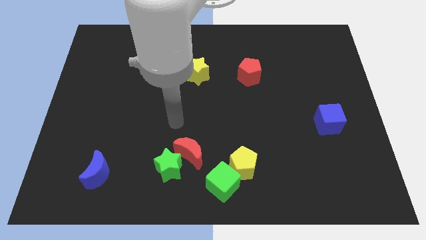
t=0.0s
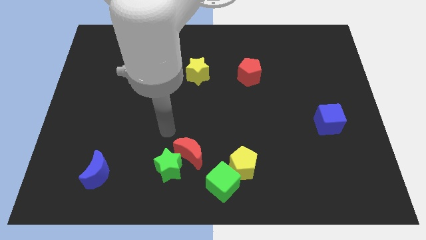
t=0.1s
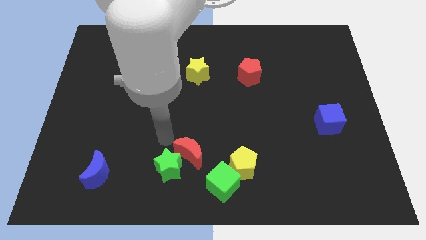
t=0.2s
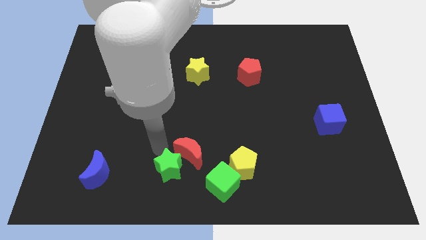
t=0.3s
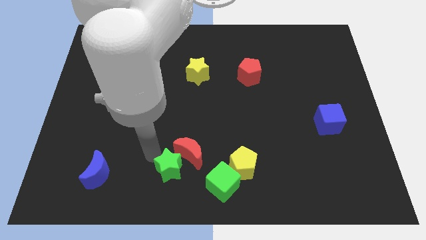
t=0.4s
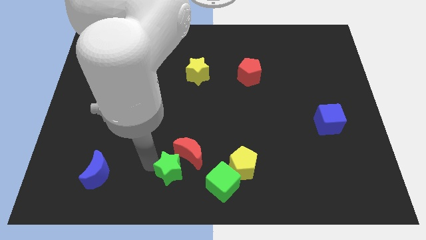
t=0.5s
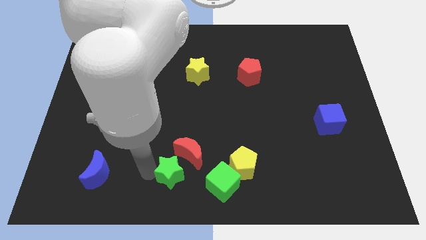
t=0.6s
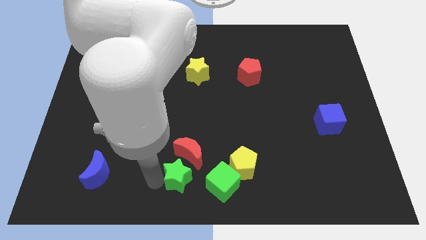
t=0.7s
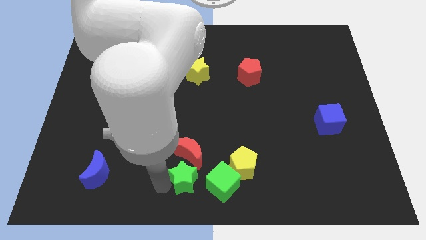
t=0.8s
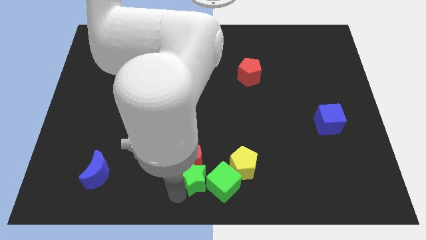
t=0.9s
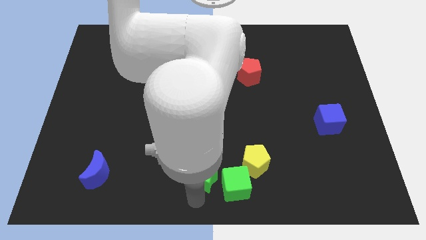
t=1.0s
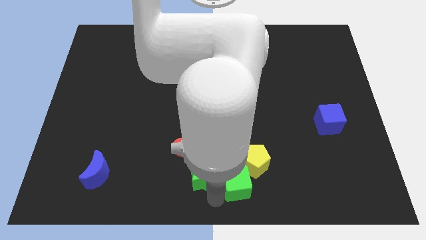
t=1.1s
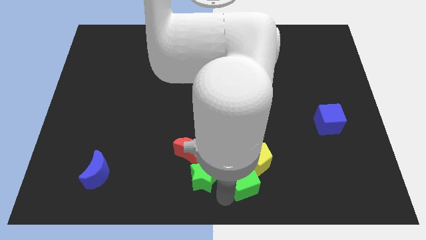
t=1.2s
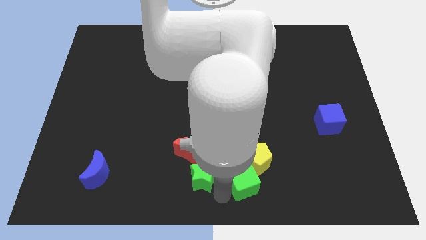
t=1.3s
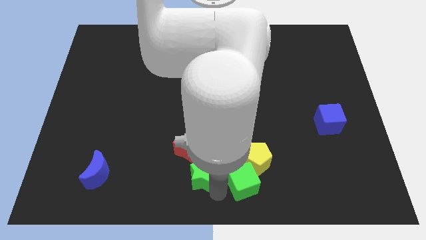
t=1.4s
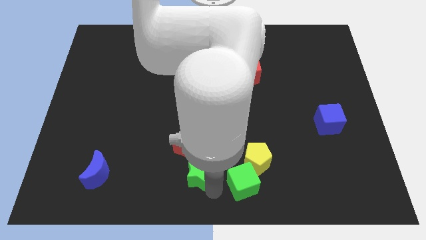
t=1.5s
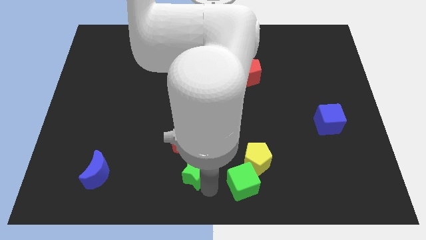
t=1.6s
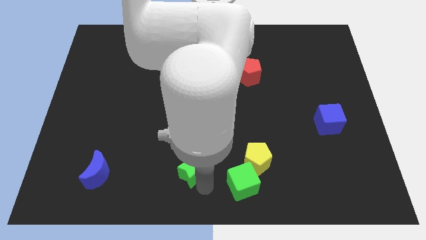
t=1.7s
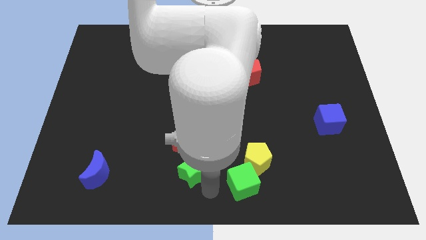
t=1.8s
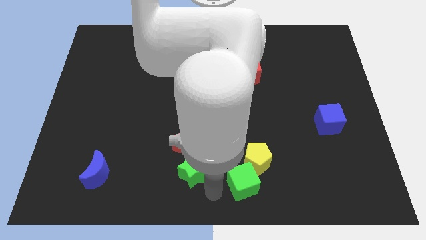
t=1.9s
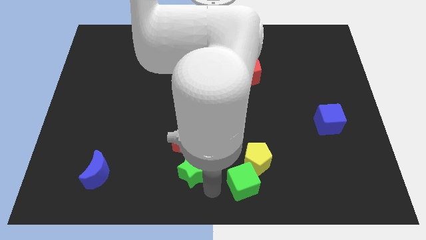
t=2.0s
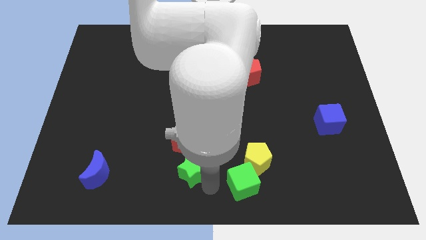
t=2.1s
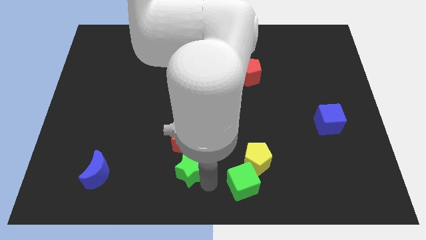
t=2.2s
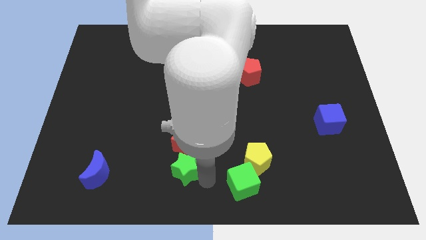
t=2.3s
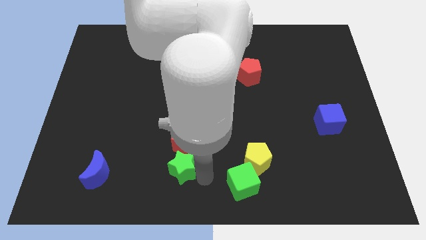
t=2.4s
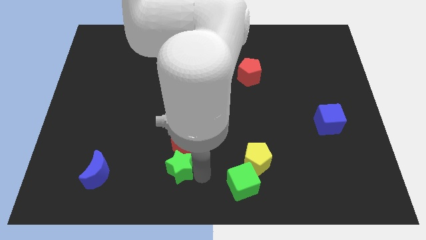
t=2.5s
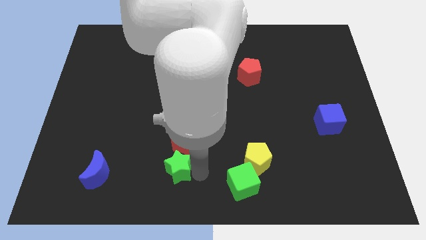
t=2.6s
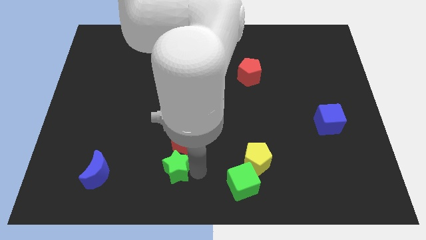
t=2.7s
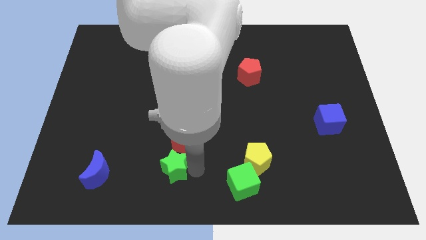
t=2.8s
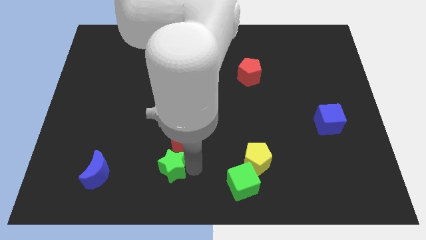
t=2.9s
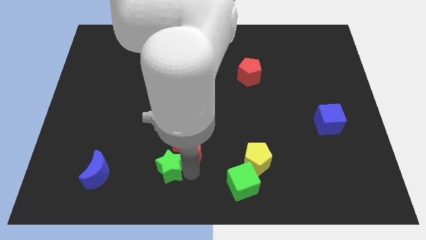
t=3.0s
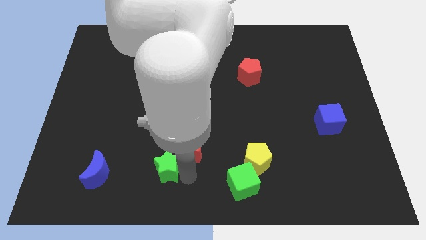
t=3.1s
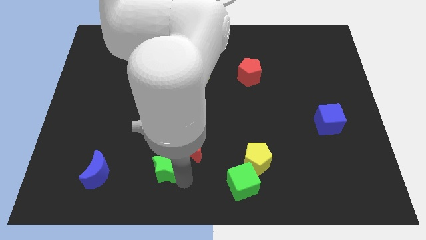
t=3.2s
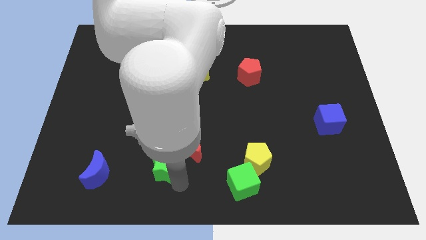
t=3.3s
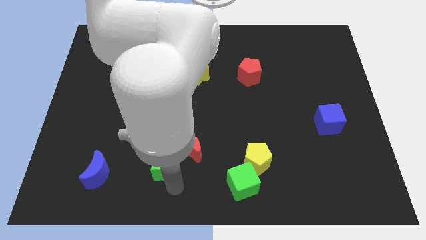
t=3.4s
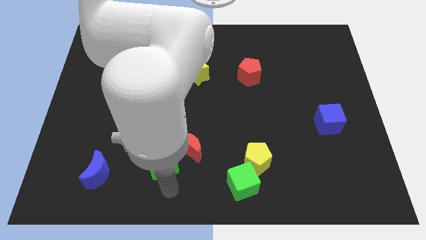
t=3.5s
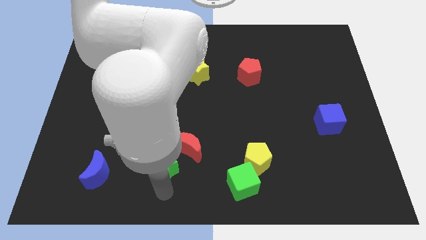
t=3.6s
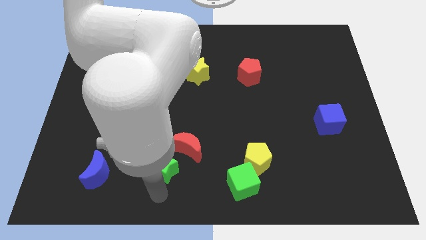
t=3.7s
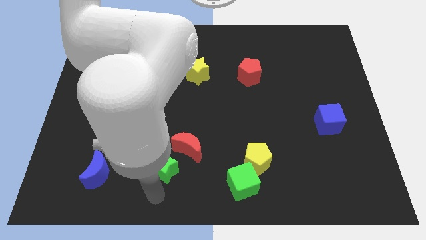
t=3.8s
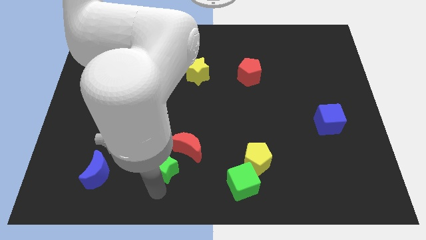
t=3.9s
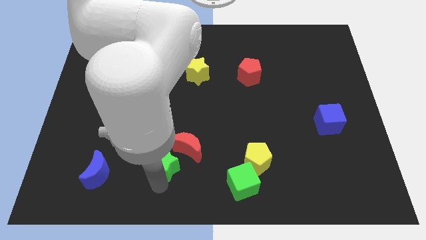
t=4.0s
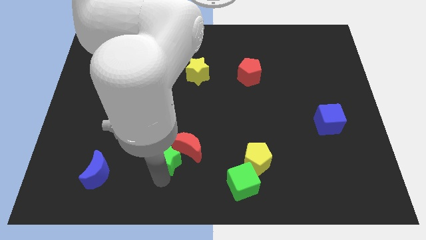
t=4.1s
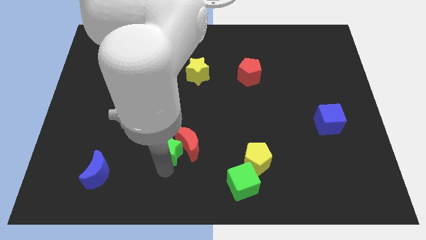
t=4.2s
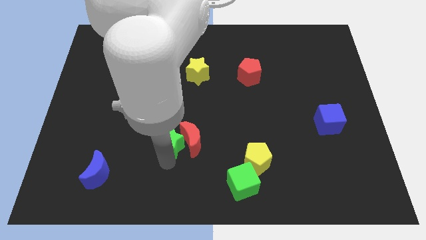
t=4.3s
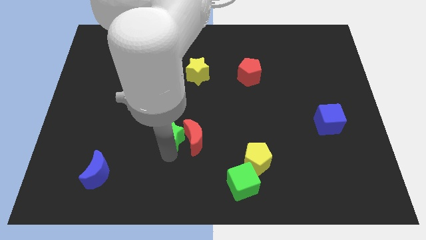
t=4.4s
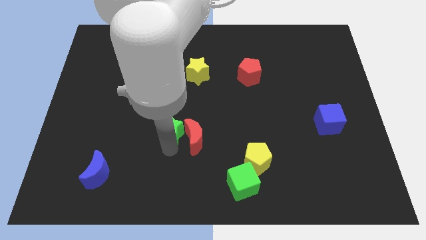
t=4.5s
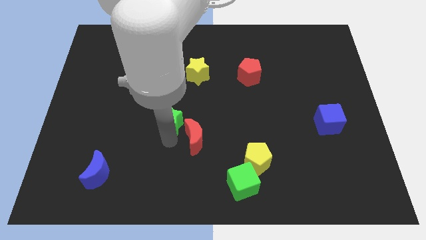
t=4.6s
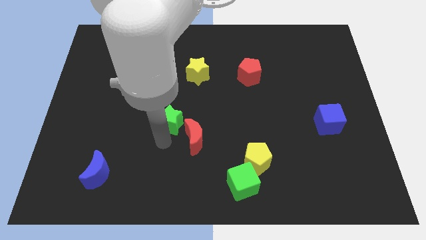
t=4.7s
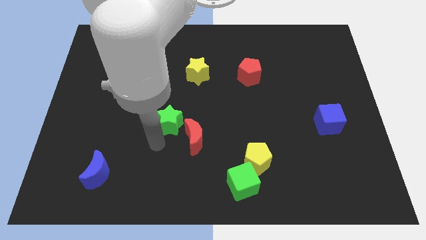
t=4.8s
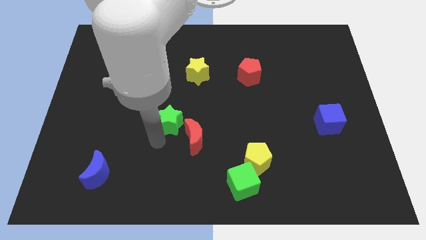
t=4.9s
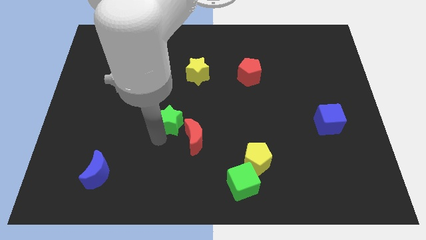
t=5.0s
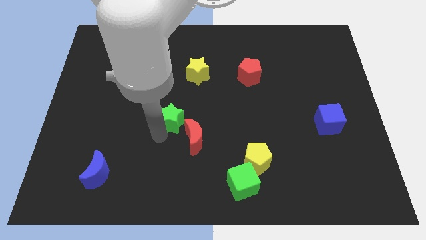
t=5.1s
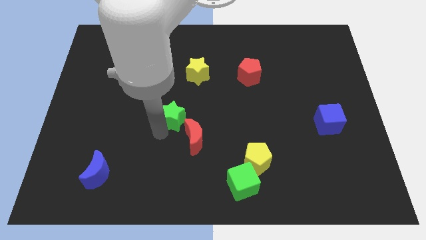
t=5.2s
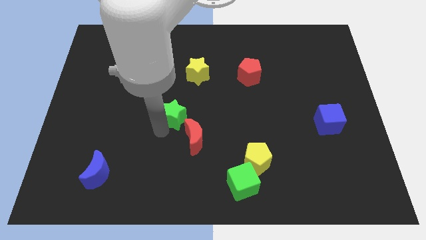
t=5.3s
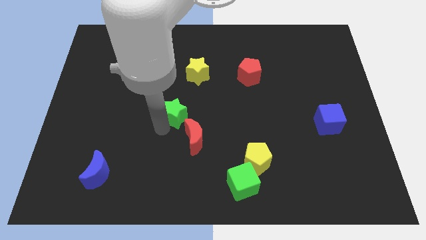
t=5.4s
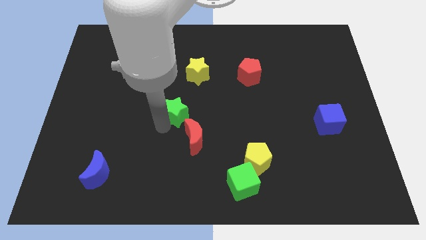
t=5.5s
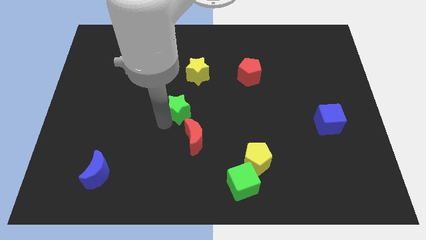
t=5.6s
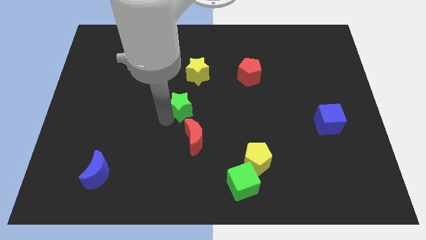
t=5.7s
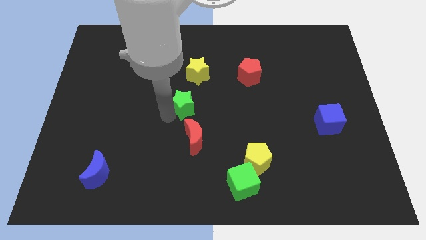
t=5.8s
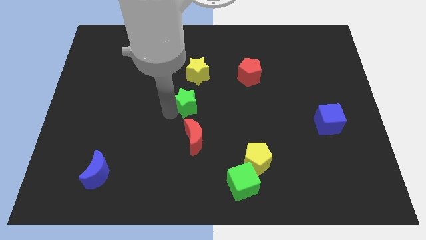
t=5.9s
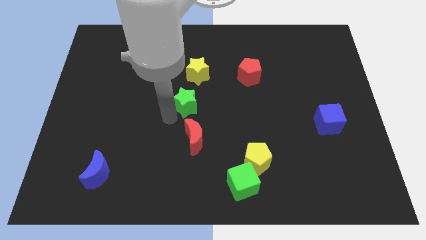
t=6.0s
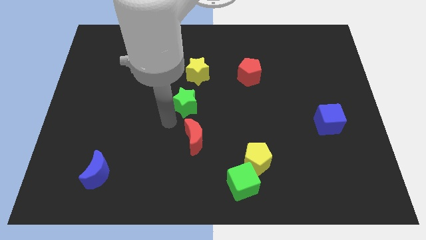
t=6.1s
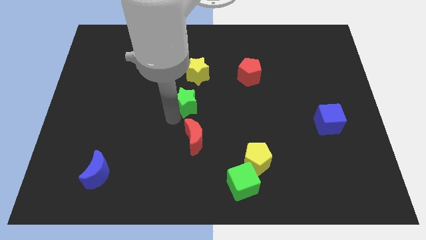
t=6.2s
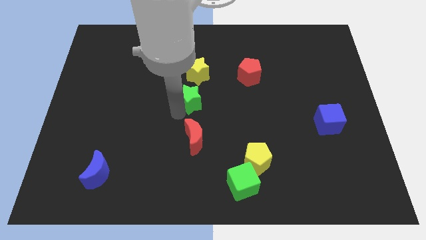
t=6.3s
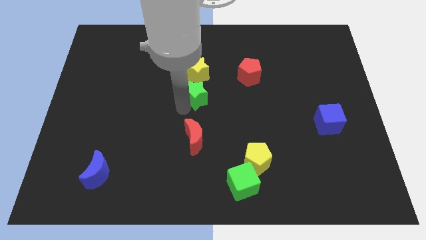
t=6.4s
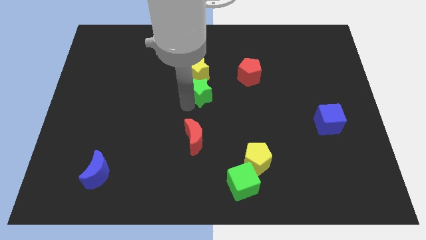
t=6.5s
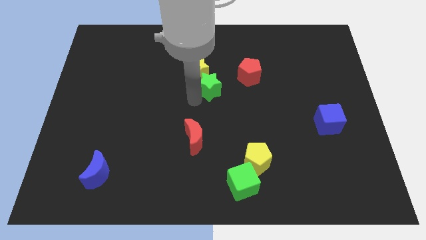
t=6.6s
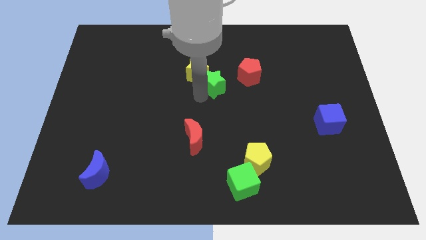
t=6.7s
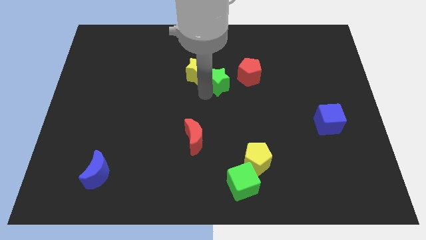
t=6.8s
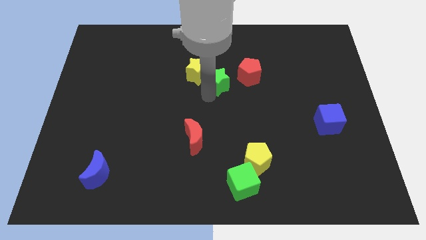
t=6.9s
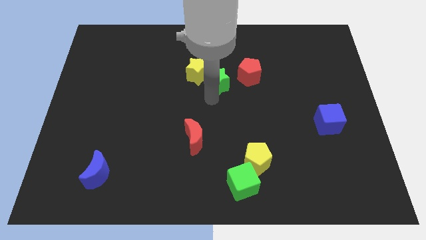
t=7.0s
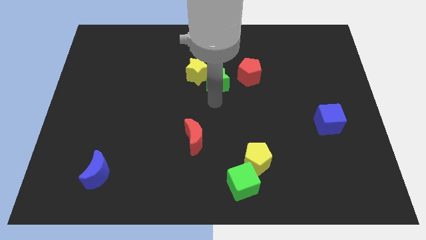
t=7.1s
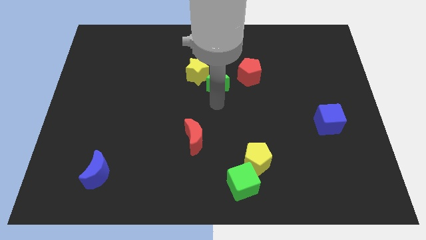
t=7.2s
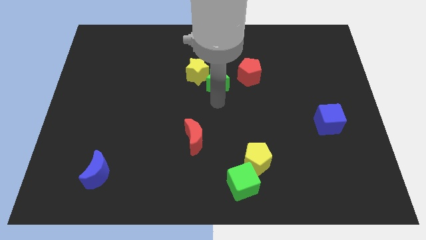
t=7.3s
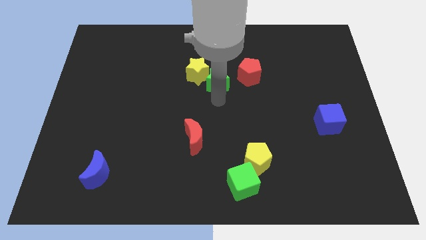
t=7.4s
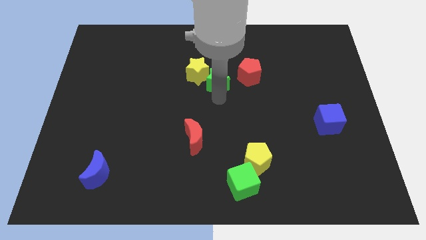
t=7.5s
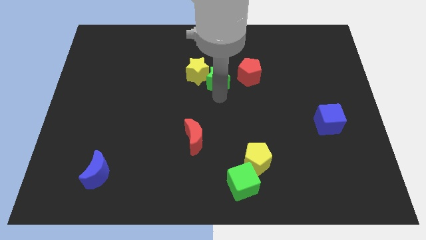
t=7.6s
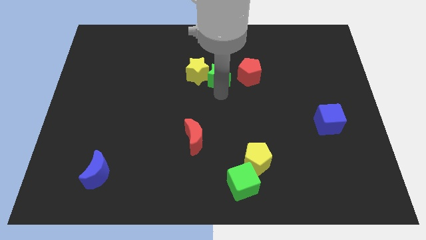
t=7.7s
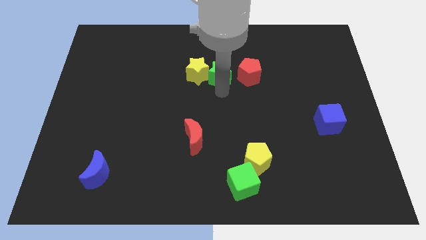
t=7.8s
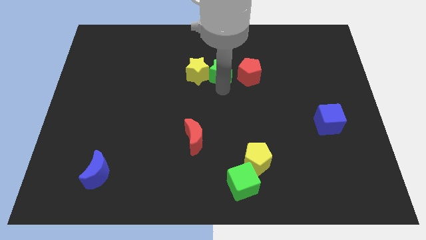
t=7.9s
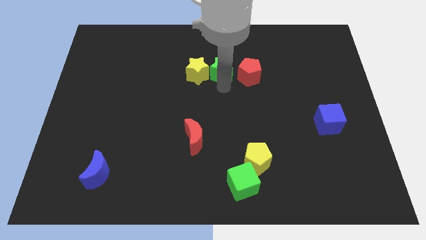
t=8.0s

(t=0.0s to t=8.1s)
push the green star diagonally up and to the left of the red pentagon
